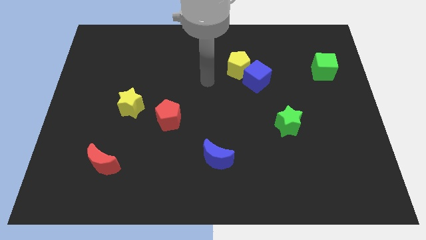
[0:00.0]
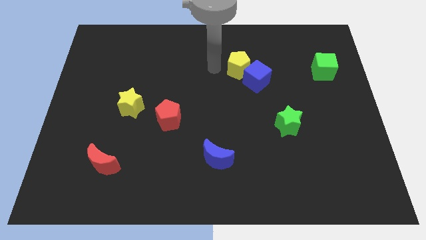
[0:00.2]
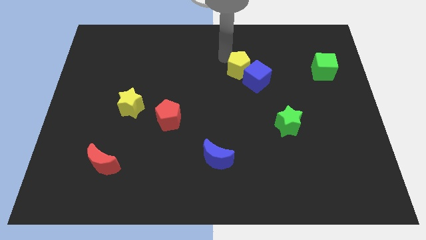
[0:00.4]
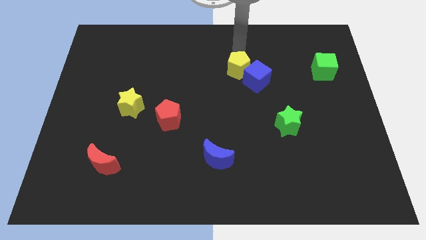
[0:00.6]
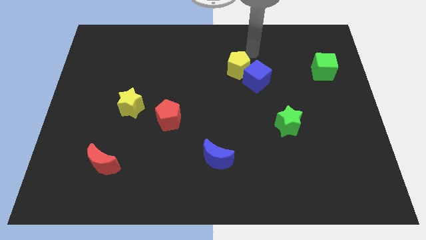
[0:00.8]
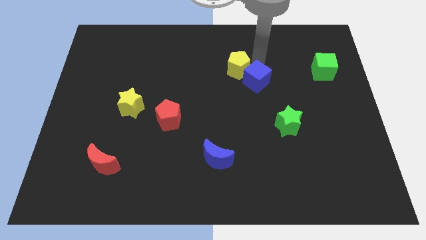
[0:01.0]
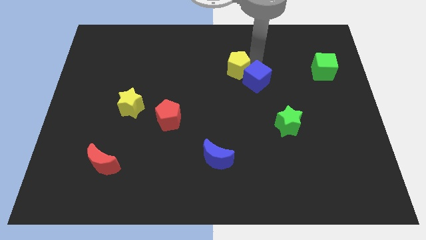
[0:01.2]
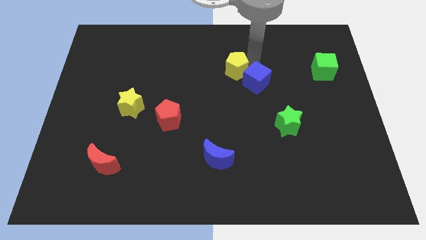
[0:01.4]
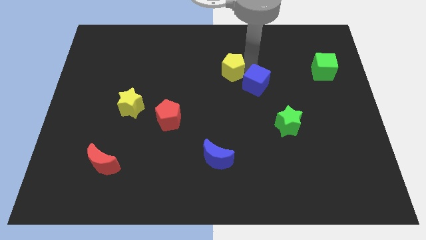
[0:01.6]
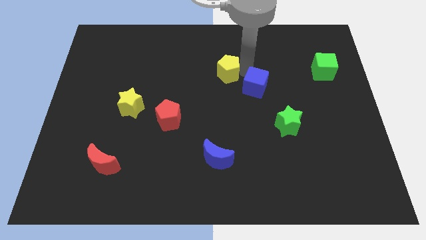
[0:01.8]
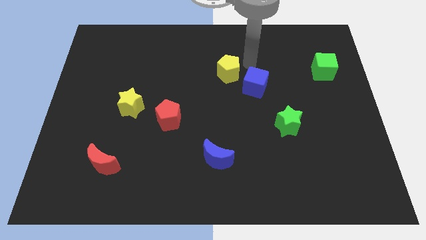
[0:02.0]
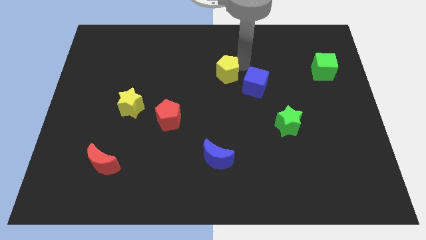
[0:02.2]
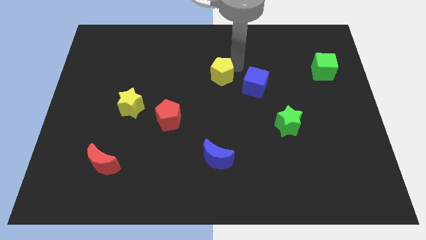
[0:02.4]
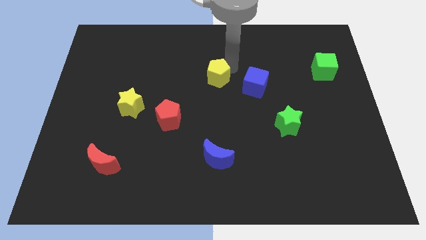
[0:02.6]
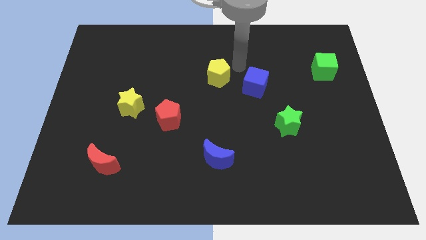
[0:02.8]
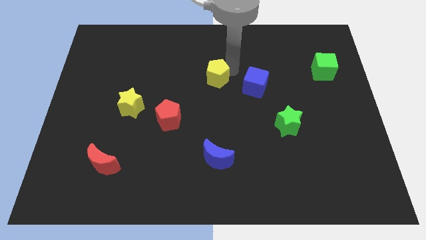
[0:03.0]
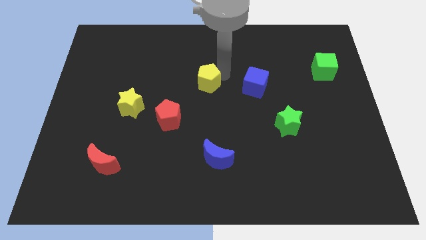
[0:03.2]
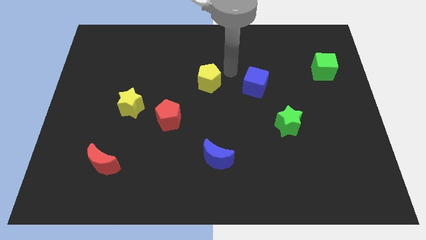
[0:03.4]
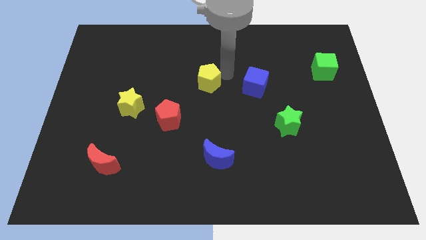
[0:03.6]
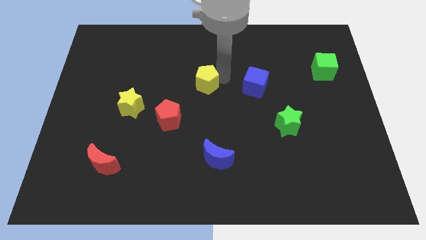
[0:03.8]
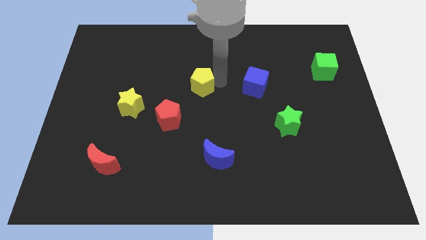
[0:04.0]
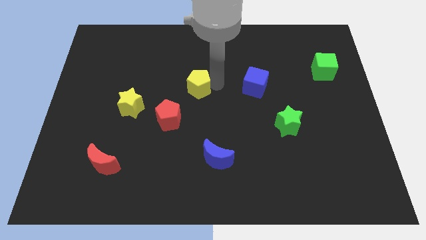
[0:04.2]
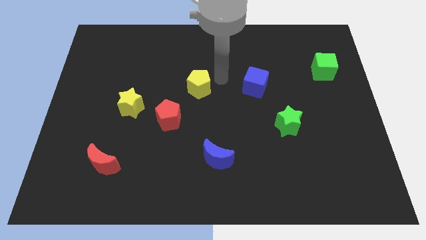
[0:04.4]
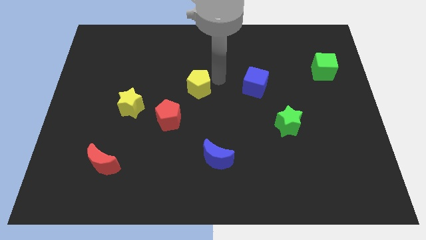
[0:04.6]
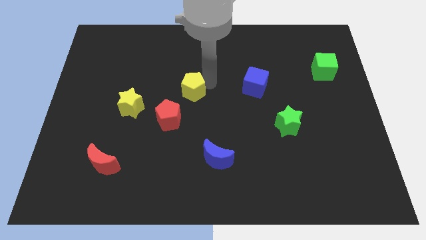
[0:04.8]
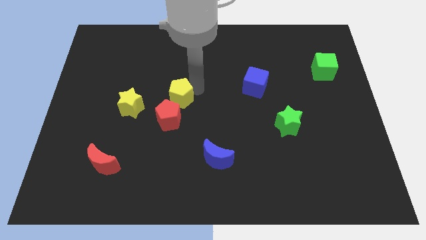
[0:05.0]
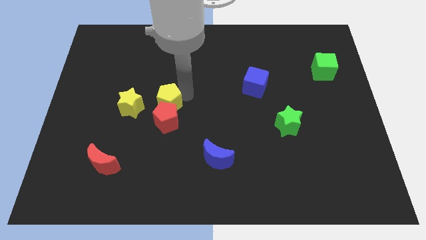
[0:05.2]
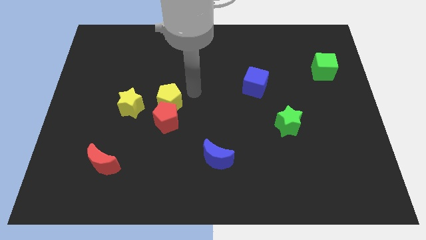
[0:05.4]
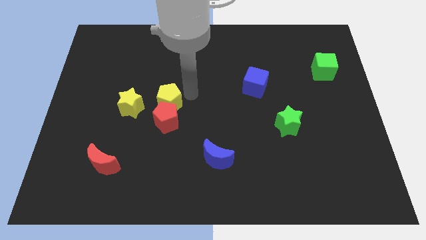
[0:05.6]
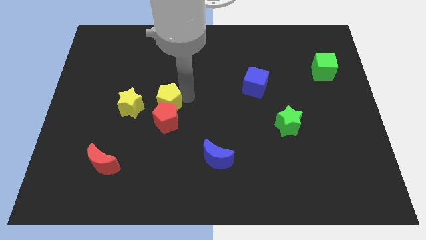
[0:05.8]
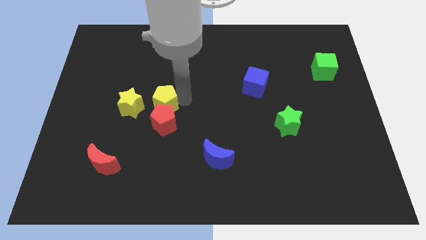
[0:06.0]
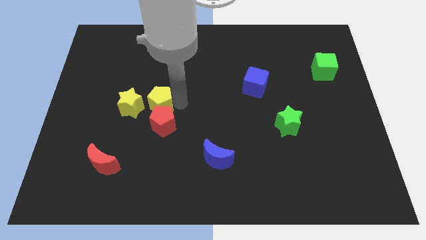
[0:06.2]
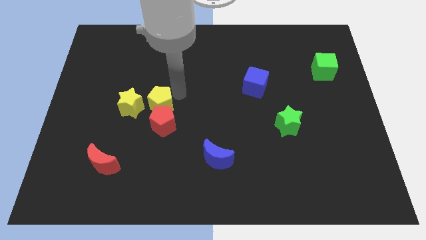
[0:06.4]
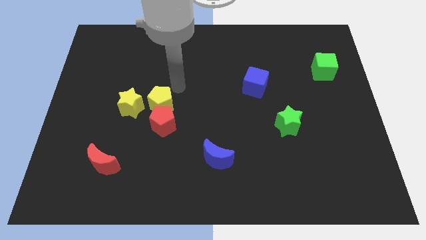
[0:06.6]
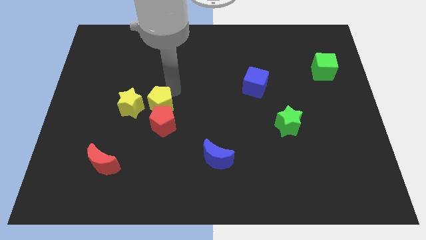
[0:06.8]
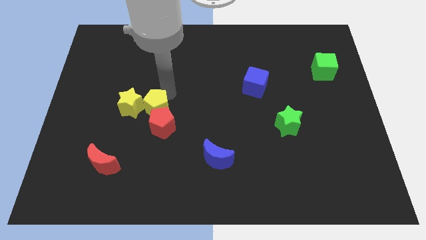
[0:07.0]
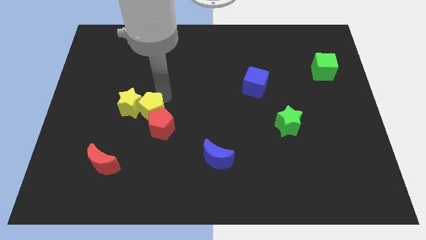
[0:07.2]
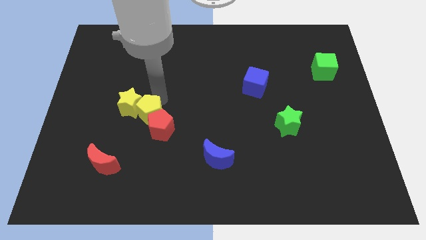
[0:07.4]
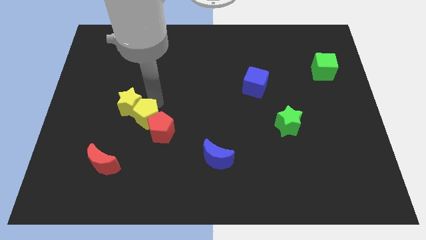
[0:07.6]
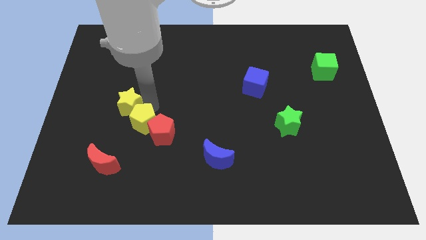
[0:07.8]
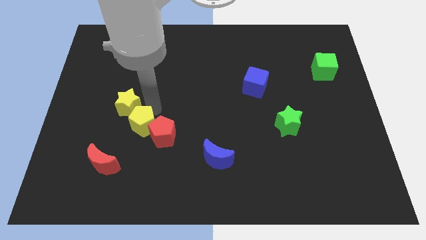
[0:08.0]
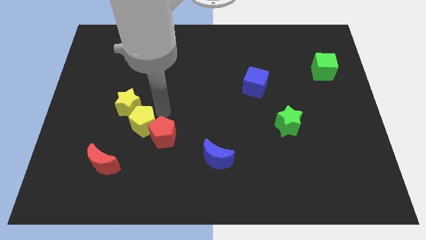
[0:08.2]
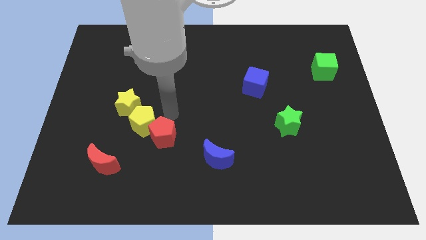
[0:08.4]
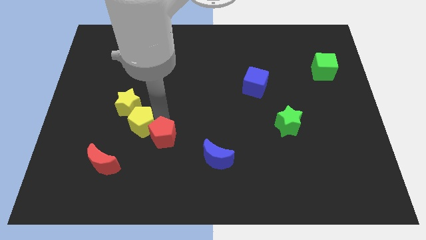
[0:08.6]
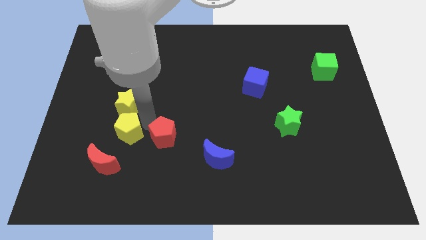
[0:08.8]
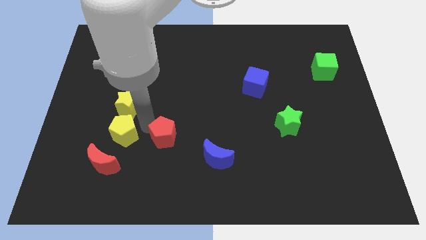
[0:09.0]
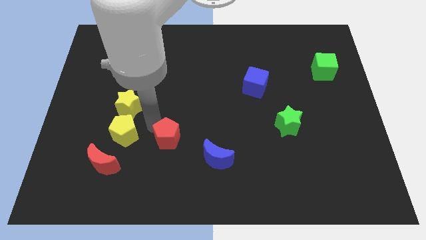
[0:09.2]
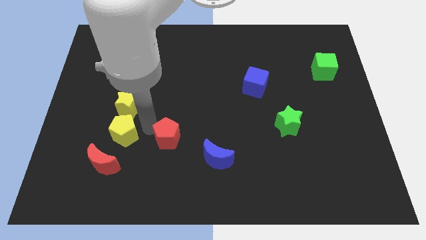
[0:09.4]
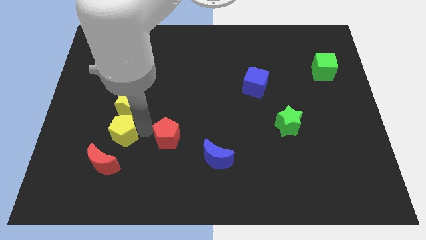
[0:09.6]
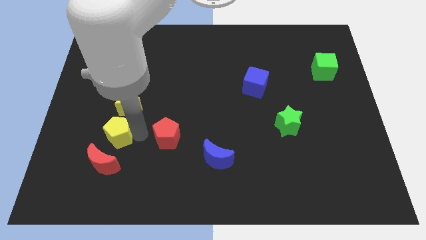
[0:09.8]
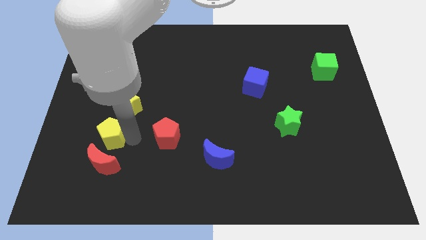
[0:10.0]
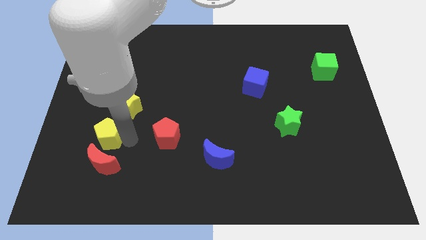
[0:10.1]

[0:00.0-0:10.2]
slide the yellow pentagon diagonally up and to the left of the red moon

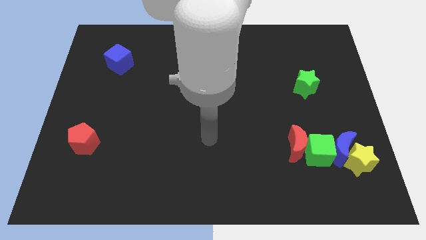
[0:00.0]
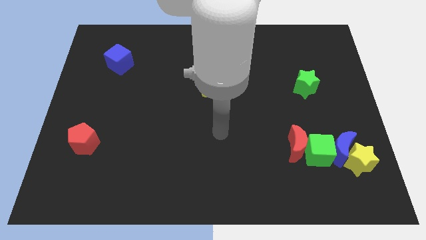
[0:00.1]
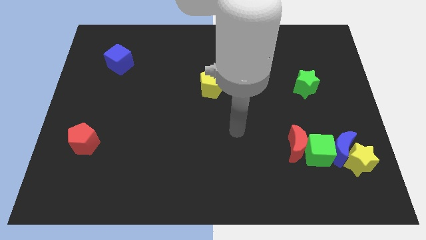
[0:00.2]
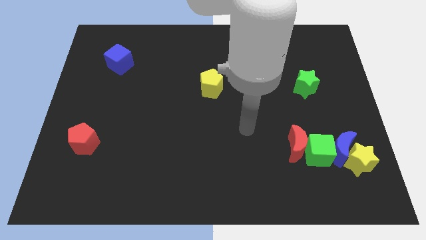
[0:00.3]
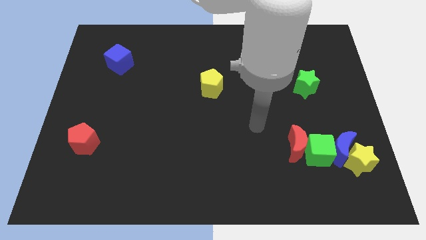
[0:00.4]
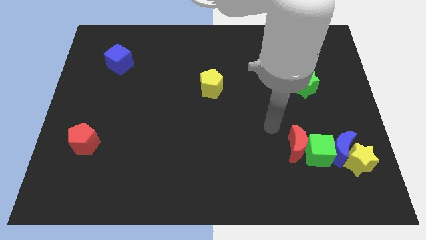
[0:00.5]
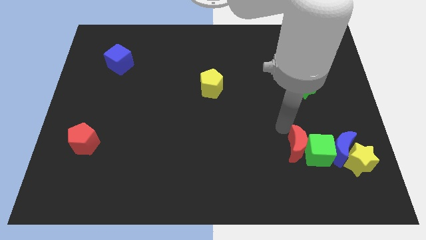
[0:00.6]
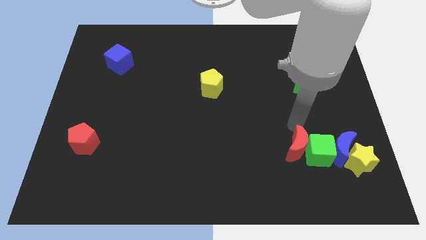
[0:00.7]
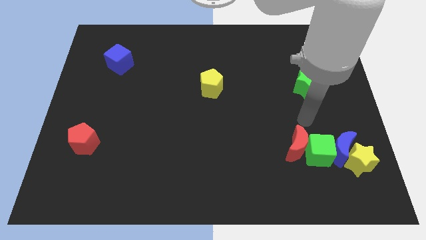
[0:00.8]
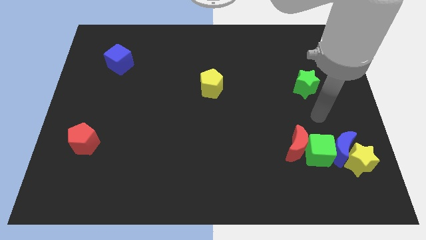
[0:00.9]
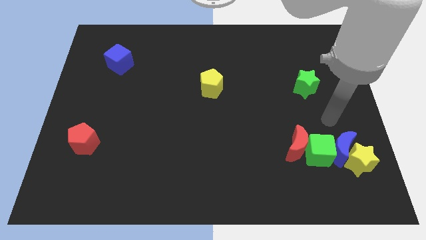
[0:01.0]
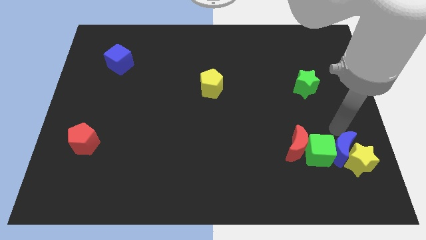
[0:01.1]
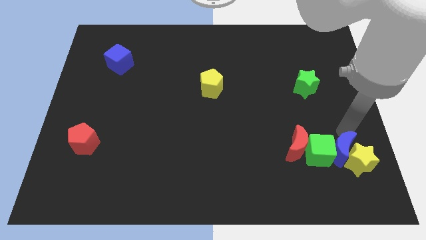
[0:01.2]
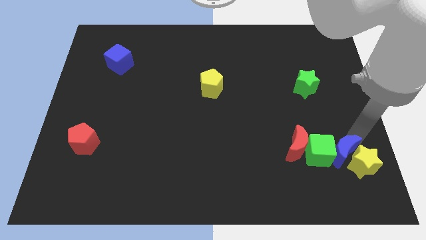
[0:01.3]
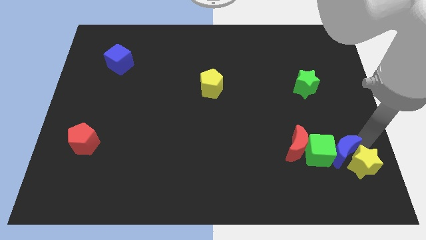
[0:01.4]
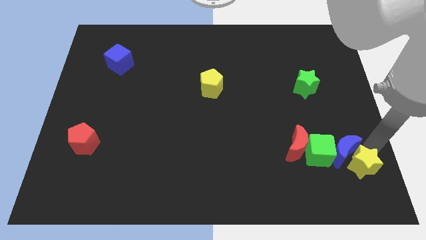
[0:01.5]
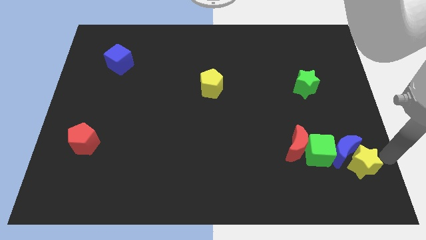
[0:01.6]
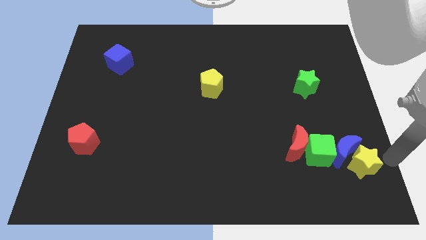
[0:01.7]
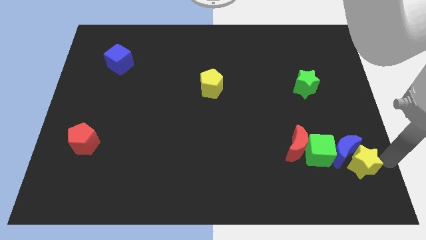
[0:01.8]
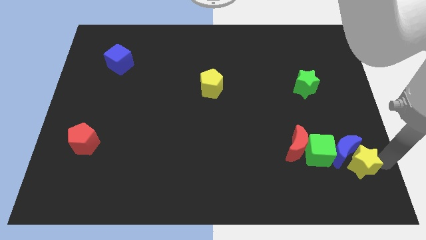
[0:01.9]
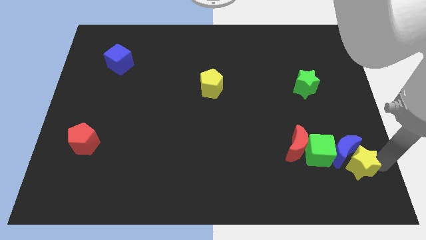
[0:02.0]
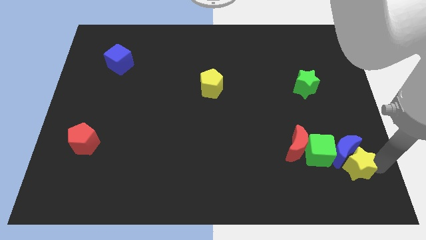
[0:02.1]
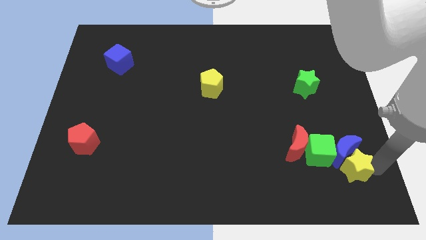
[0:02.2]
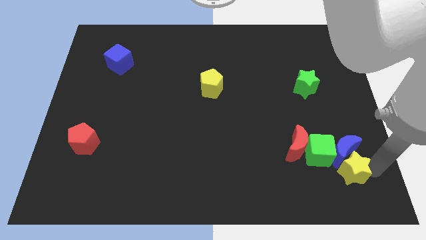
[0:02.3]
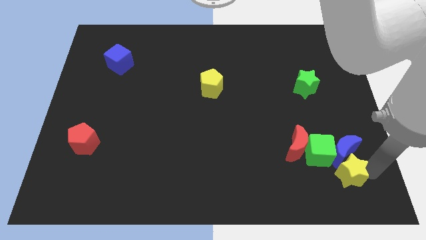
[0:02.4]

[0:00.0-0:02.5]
move the yellow star to the bottom right side of the red moon
